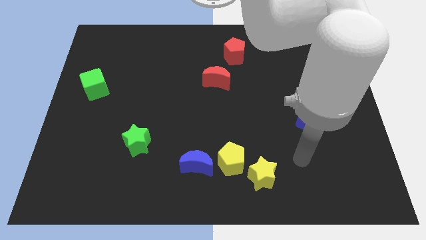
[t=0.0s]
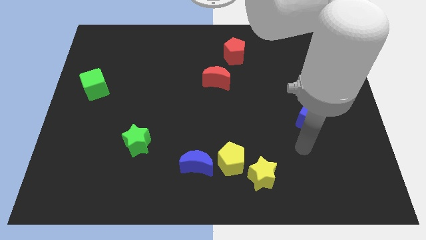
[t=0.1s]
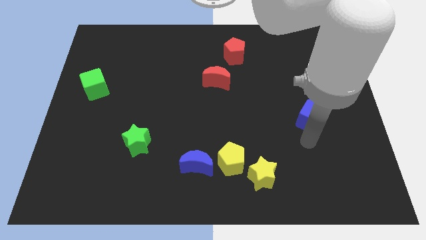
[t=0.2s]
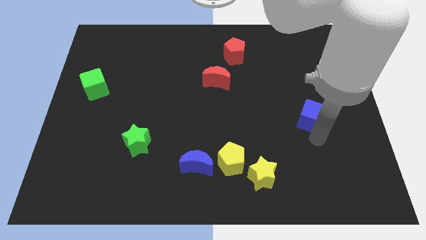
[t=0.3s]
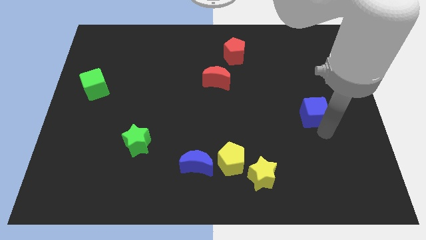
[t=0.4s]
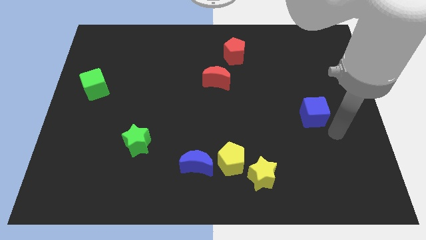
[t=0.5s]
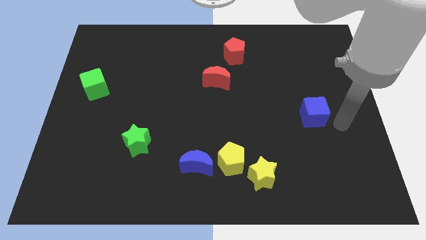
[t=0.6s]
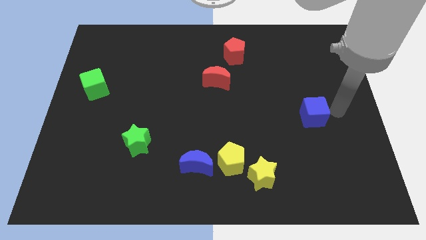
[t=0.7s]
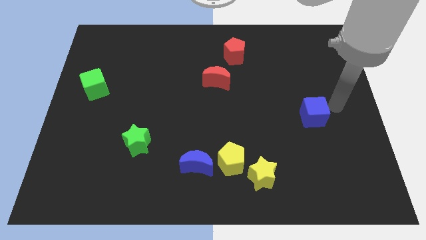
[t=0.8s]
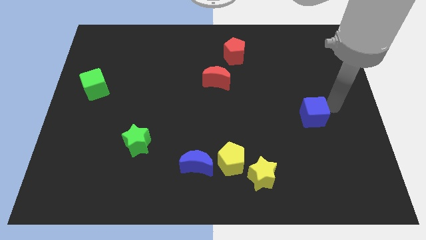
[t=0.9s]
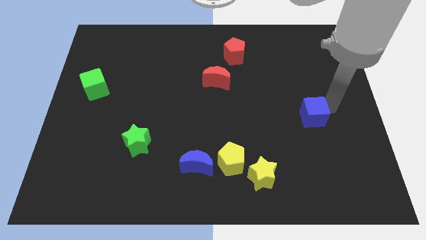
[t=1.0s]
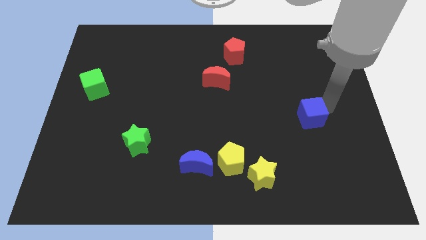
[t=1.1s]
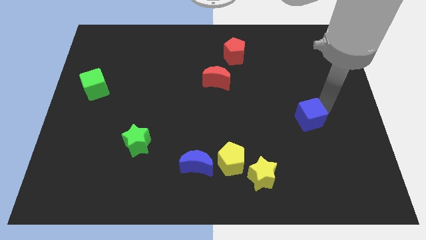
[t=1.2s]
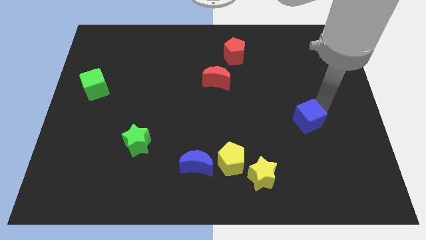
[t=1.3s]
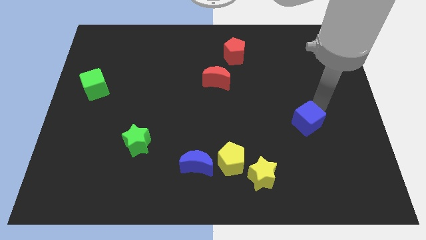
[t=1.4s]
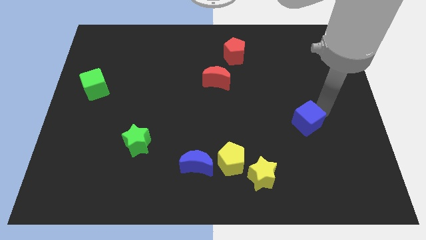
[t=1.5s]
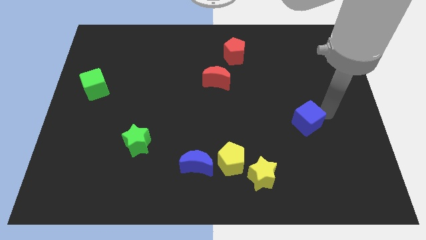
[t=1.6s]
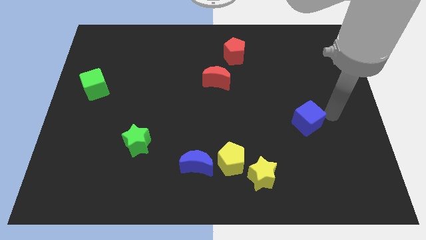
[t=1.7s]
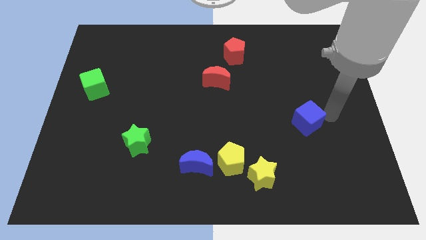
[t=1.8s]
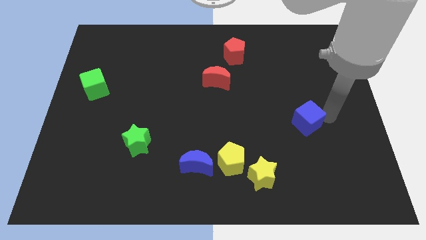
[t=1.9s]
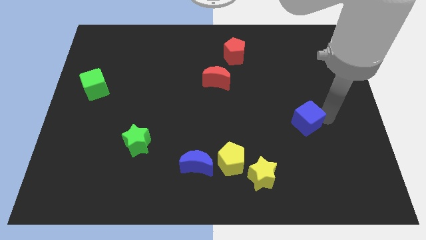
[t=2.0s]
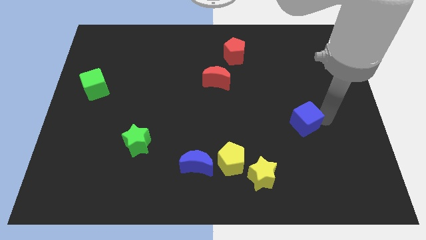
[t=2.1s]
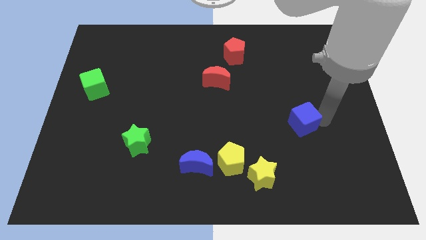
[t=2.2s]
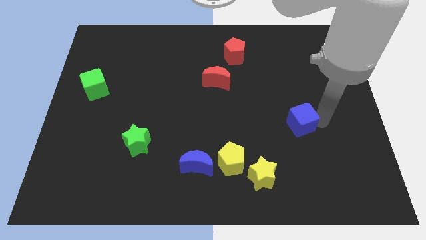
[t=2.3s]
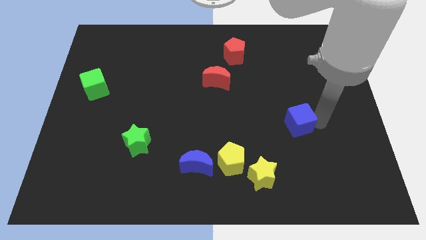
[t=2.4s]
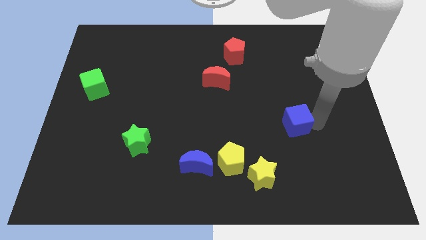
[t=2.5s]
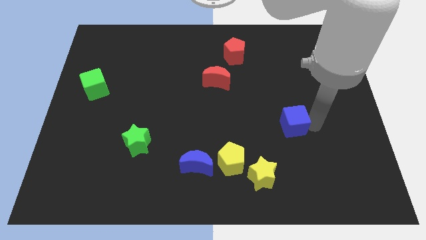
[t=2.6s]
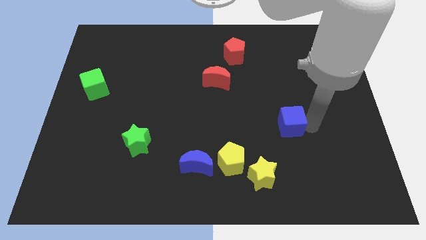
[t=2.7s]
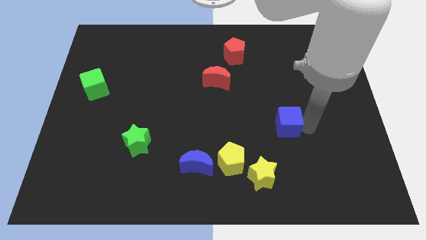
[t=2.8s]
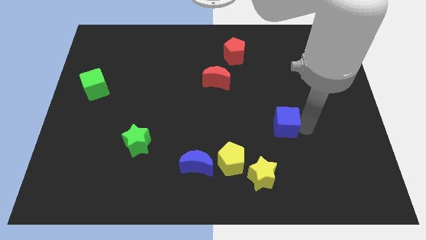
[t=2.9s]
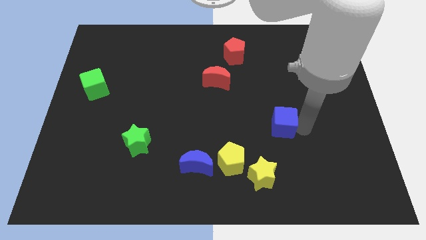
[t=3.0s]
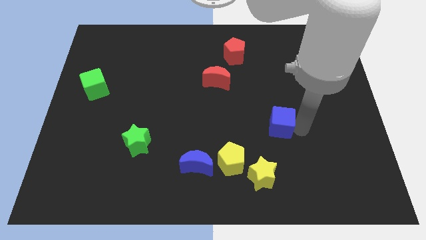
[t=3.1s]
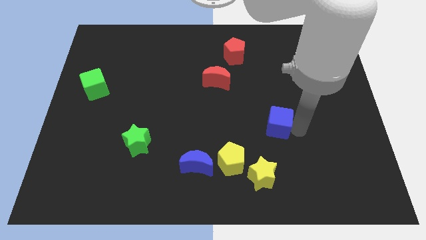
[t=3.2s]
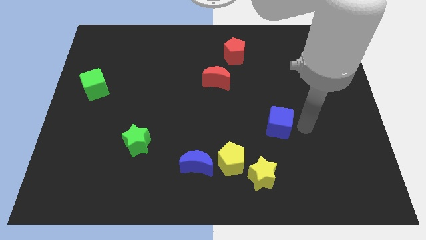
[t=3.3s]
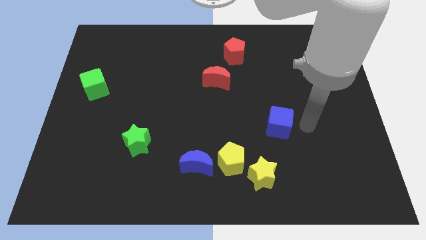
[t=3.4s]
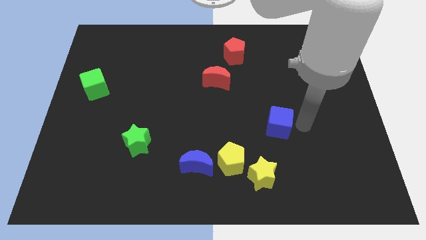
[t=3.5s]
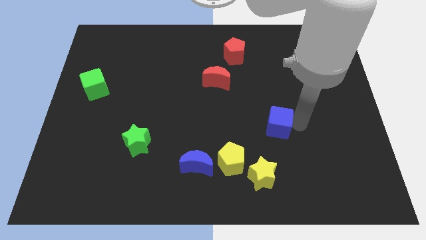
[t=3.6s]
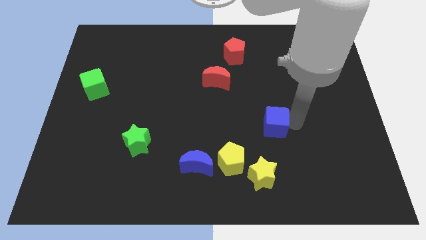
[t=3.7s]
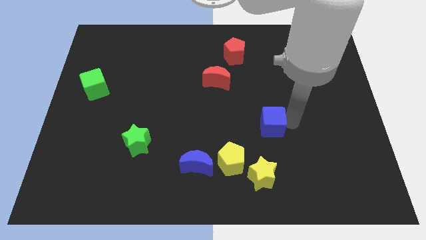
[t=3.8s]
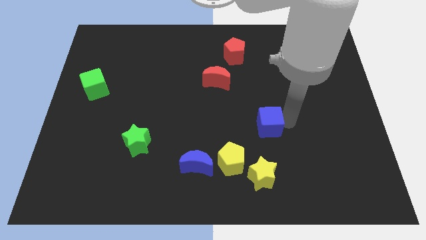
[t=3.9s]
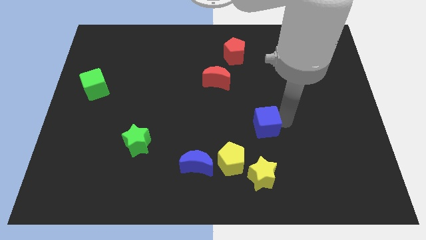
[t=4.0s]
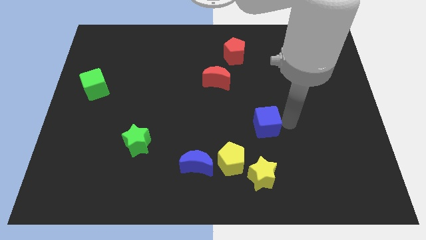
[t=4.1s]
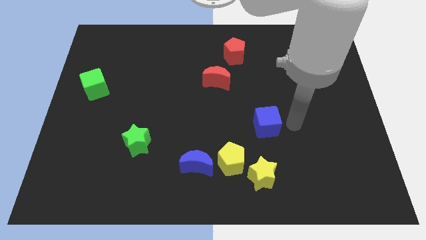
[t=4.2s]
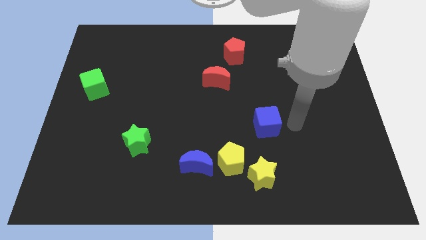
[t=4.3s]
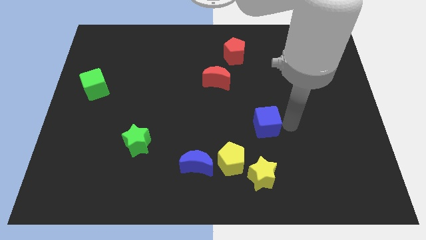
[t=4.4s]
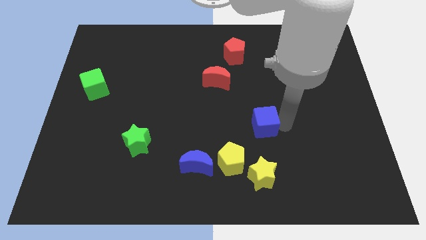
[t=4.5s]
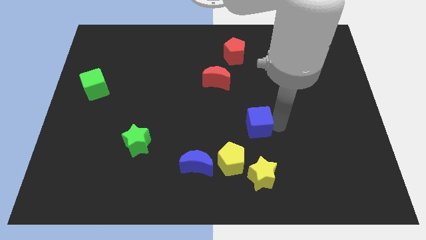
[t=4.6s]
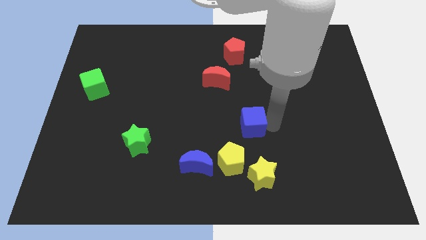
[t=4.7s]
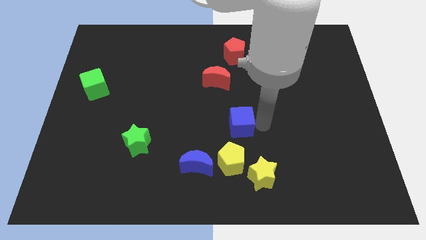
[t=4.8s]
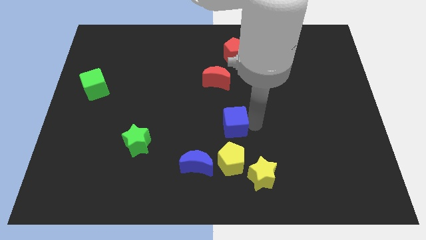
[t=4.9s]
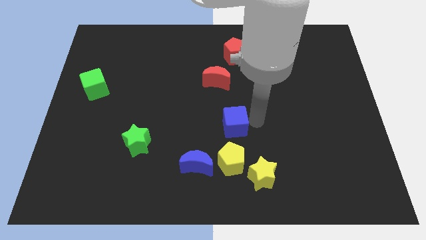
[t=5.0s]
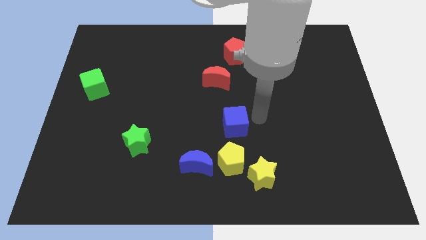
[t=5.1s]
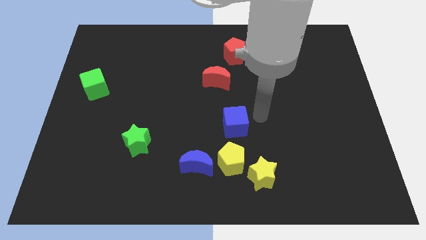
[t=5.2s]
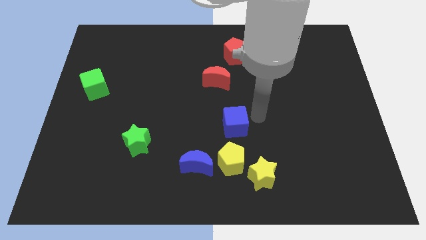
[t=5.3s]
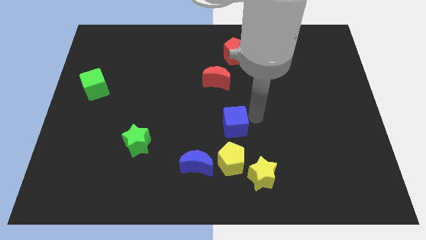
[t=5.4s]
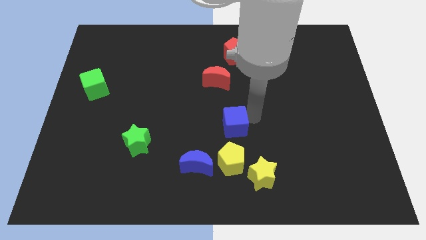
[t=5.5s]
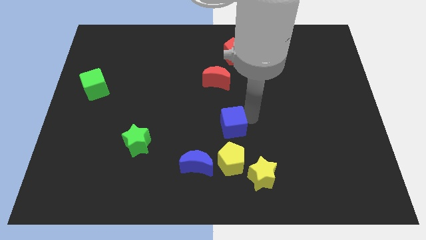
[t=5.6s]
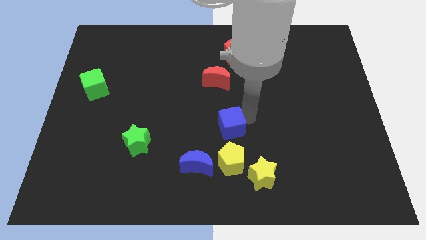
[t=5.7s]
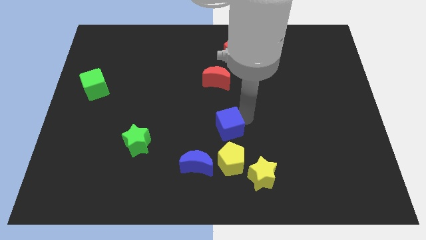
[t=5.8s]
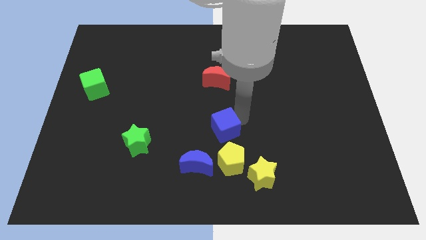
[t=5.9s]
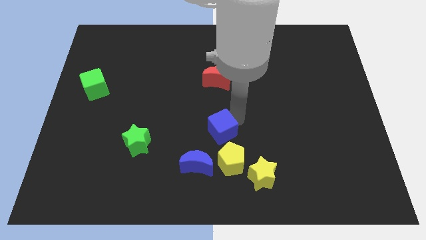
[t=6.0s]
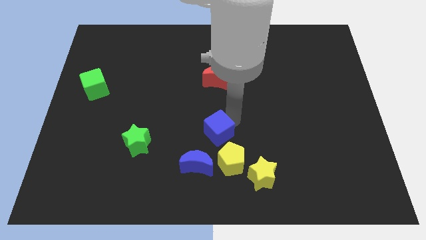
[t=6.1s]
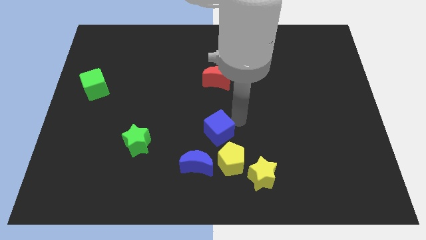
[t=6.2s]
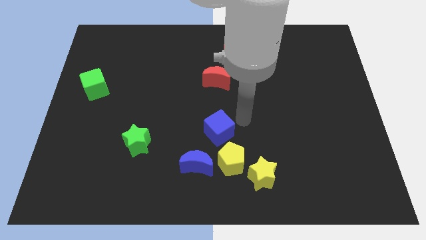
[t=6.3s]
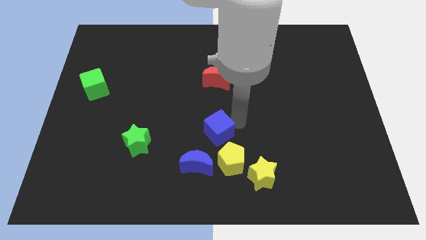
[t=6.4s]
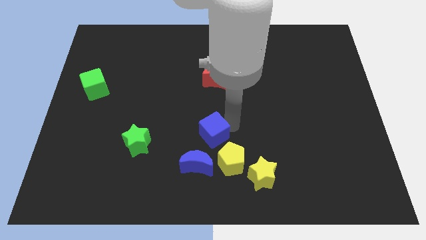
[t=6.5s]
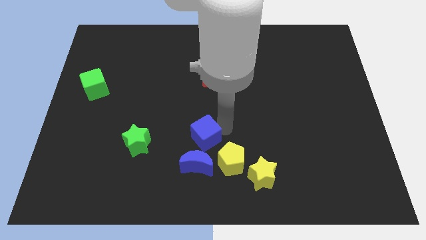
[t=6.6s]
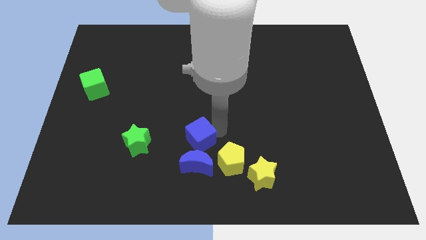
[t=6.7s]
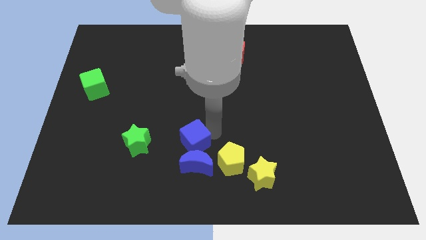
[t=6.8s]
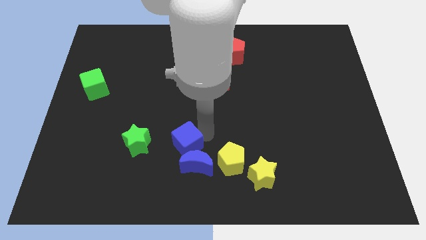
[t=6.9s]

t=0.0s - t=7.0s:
move the blue cube to the left side of the yellow pentagon
